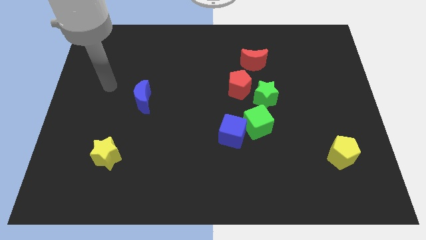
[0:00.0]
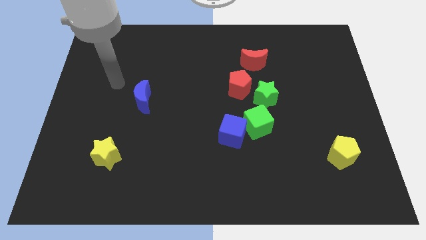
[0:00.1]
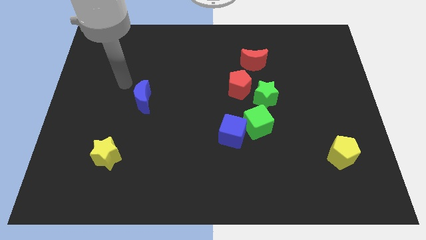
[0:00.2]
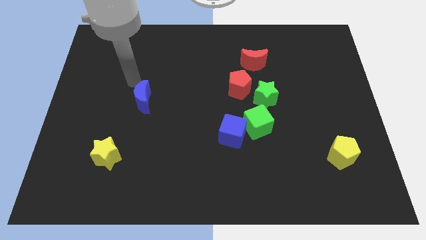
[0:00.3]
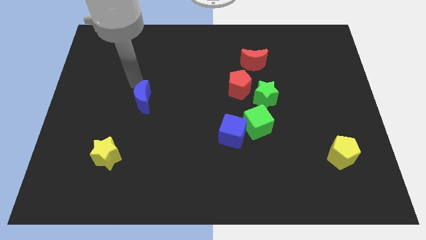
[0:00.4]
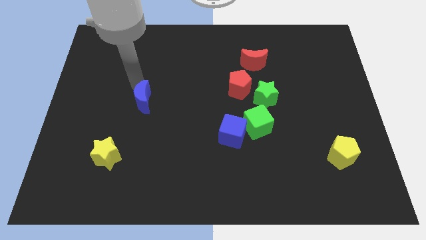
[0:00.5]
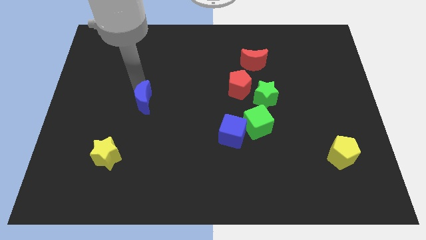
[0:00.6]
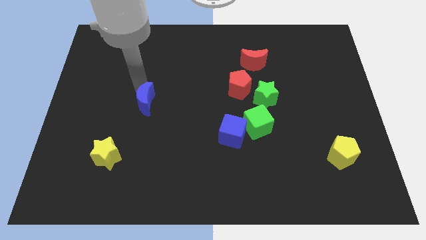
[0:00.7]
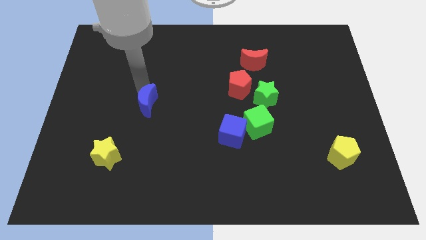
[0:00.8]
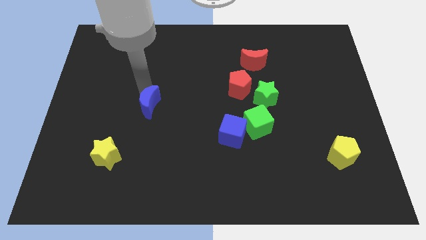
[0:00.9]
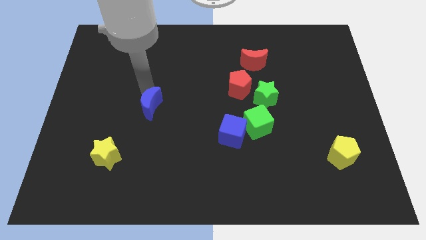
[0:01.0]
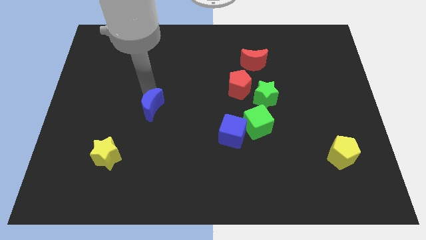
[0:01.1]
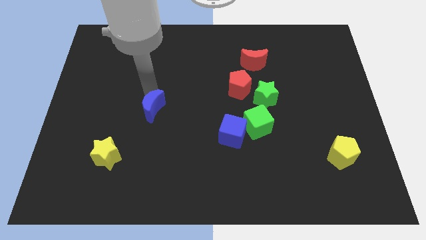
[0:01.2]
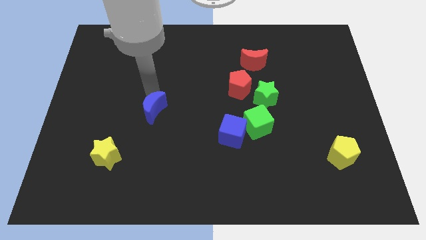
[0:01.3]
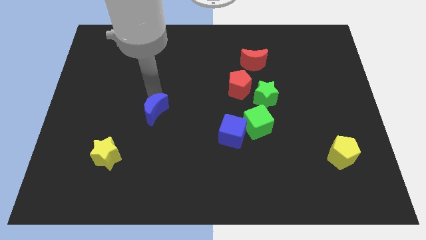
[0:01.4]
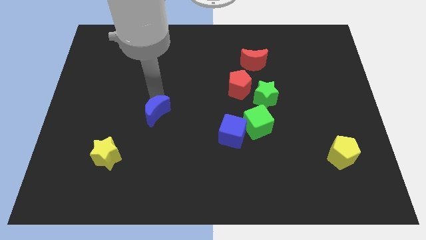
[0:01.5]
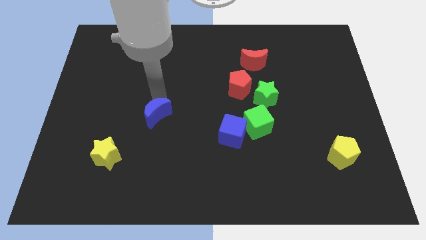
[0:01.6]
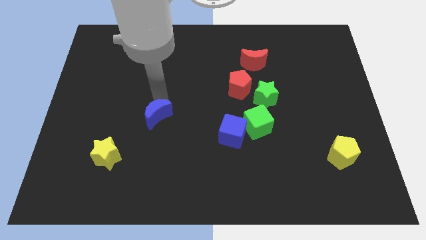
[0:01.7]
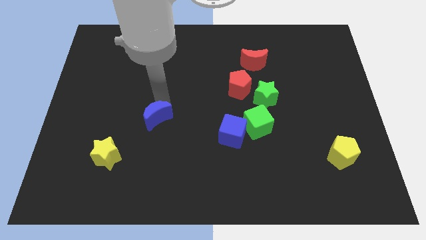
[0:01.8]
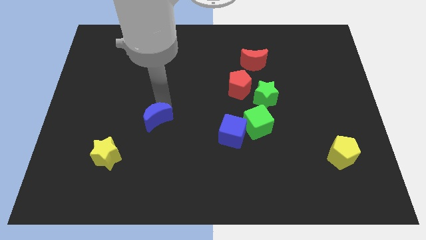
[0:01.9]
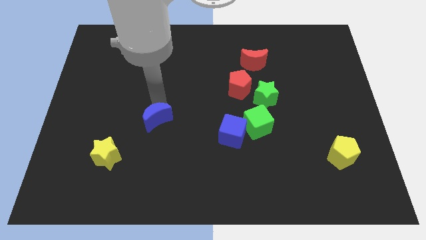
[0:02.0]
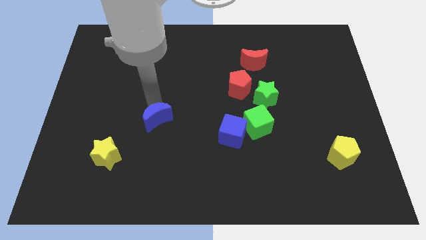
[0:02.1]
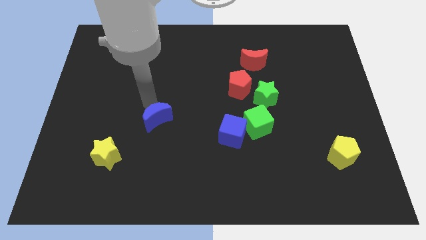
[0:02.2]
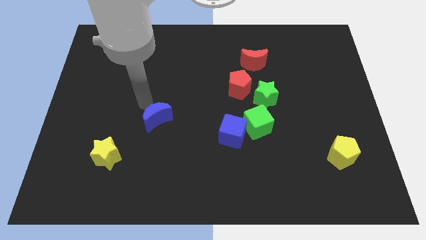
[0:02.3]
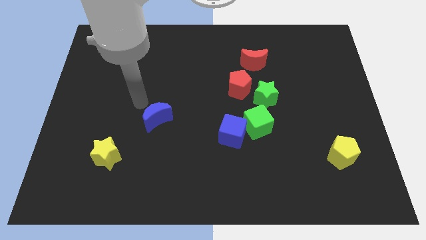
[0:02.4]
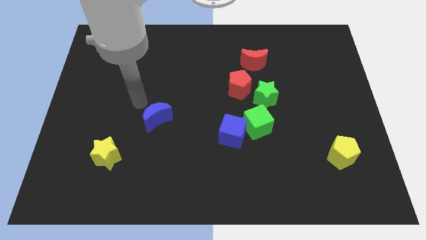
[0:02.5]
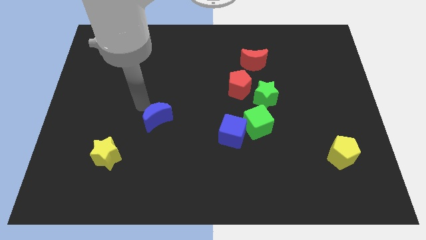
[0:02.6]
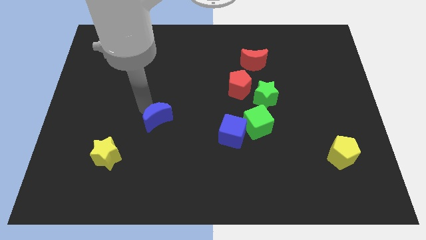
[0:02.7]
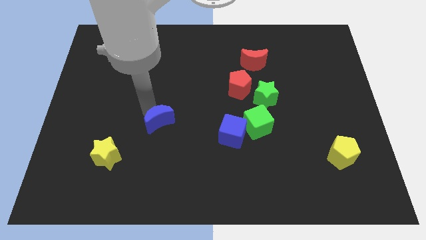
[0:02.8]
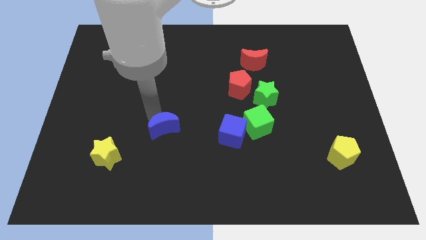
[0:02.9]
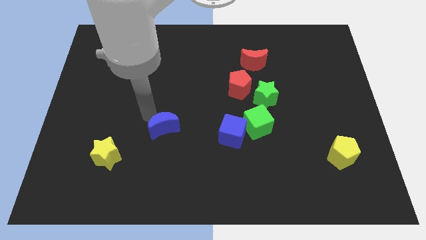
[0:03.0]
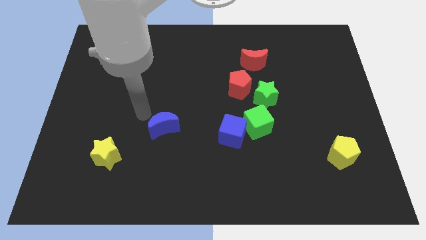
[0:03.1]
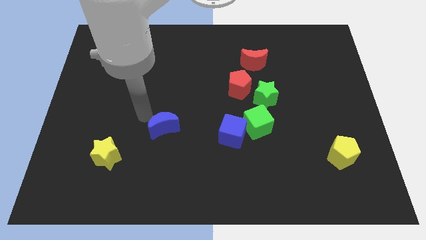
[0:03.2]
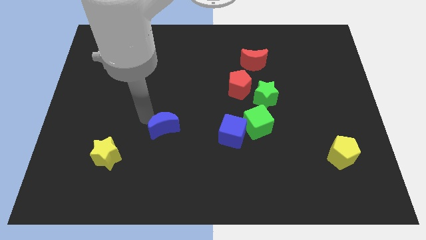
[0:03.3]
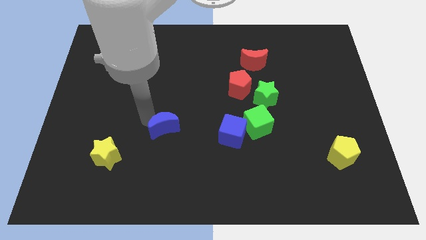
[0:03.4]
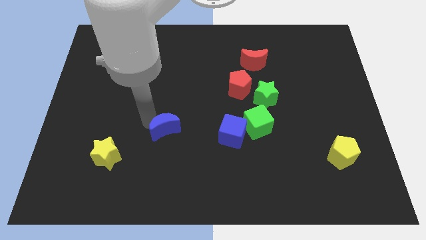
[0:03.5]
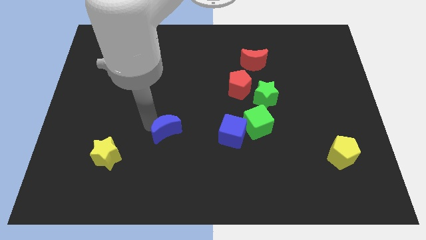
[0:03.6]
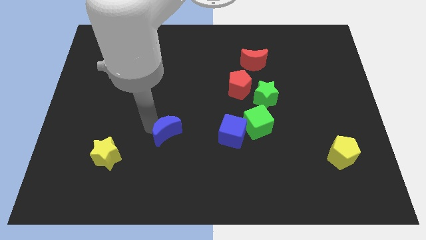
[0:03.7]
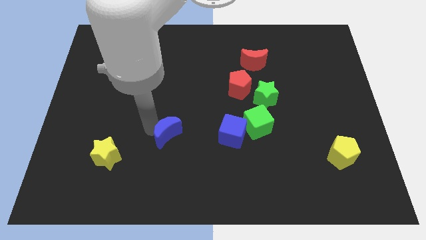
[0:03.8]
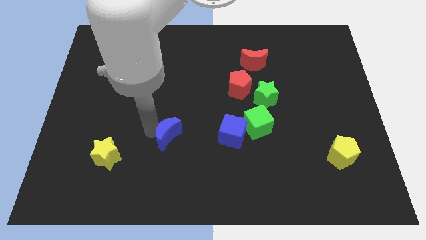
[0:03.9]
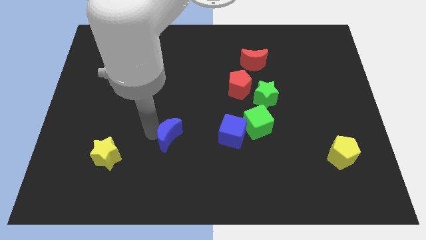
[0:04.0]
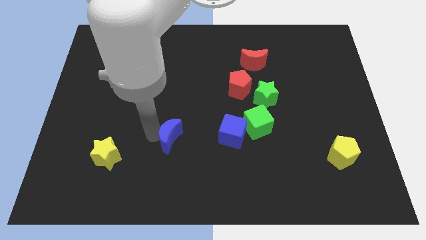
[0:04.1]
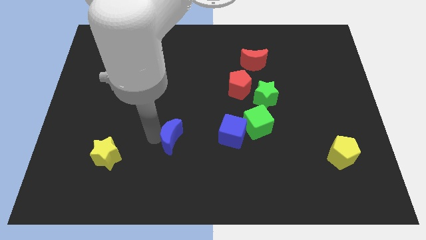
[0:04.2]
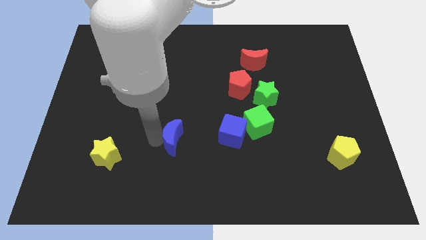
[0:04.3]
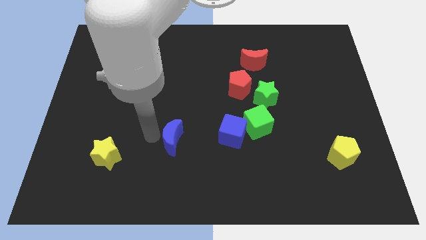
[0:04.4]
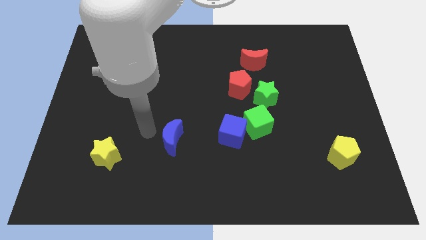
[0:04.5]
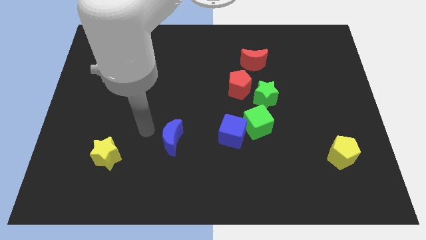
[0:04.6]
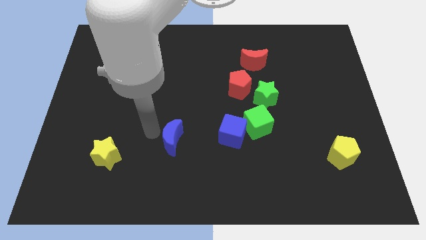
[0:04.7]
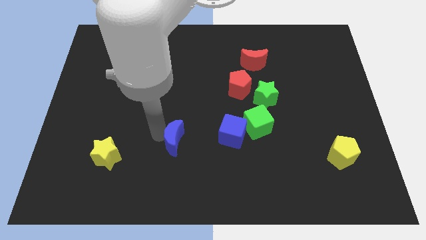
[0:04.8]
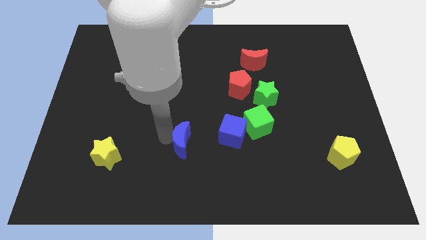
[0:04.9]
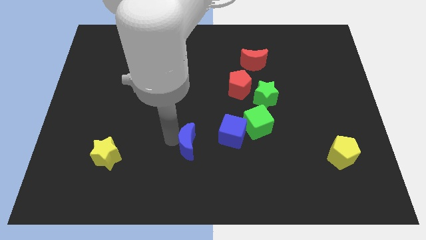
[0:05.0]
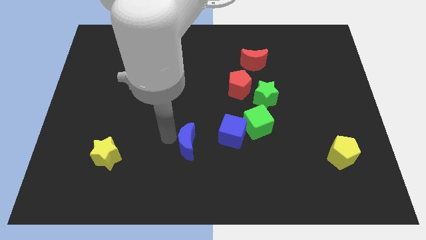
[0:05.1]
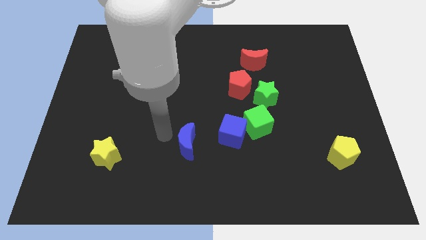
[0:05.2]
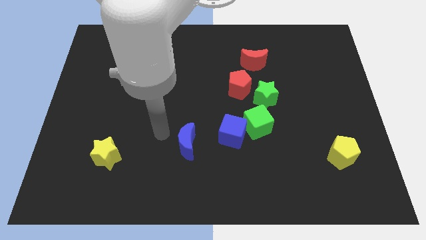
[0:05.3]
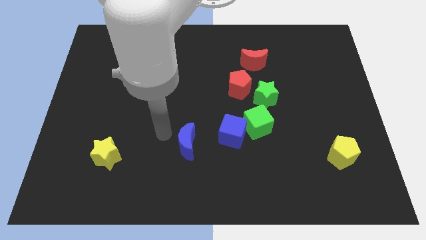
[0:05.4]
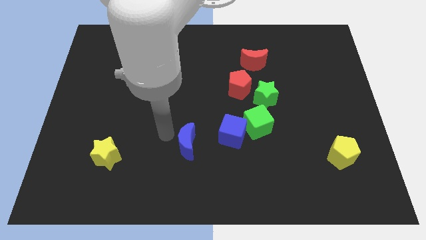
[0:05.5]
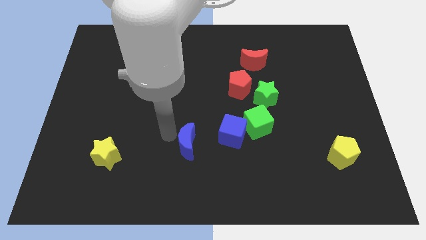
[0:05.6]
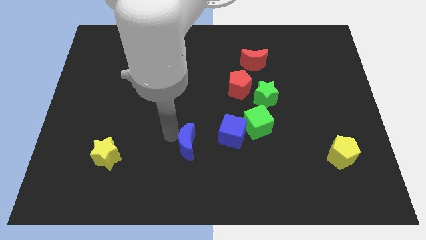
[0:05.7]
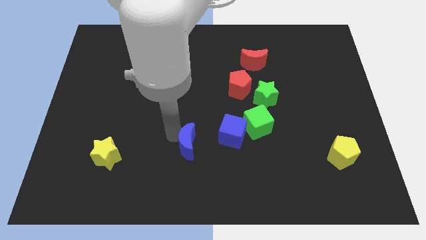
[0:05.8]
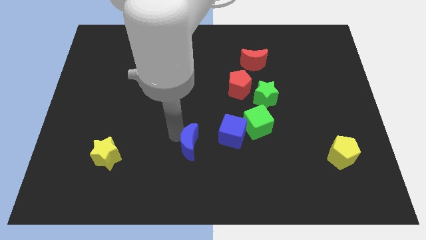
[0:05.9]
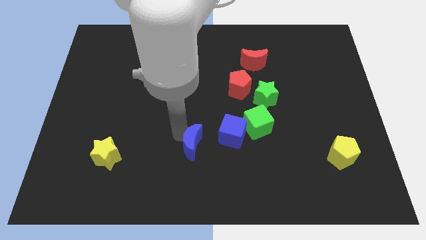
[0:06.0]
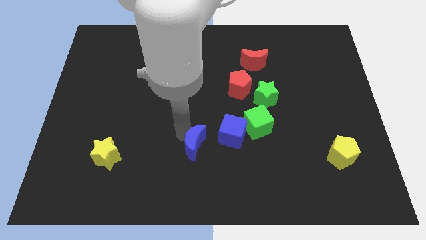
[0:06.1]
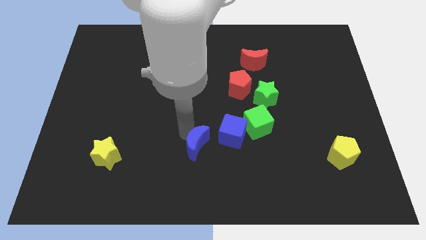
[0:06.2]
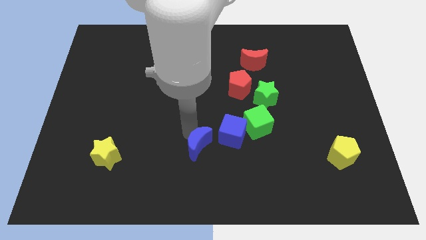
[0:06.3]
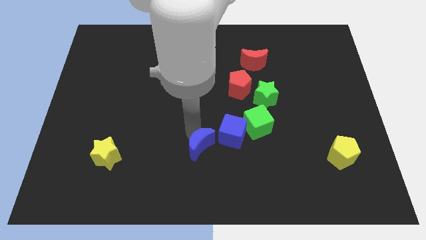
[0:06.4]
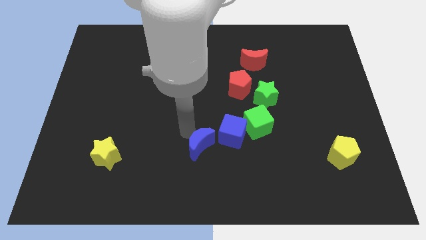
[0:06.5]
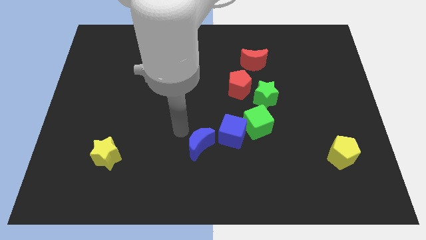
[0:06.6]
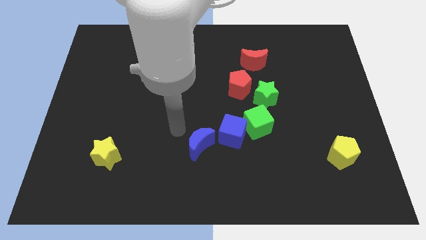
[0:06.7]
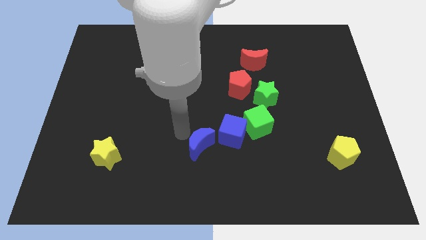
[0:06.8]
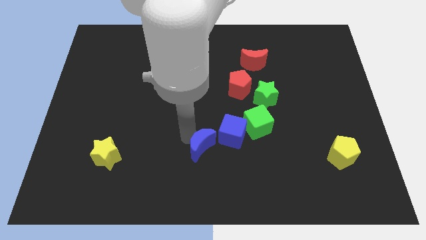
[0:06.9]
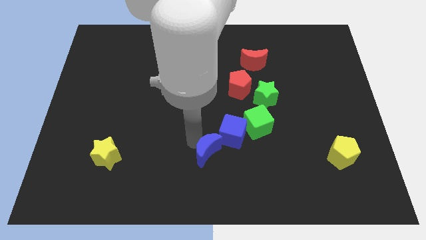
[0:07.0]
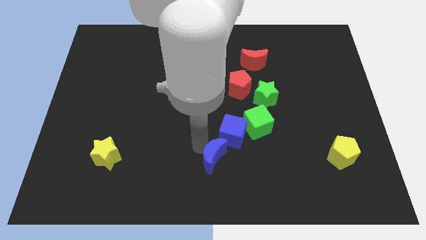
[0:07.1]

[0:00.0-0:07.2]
move the blue moon to the bottom left of the green cube
